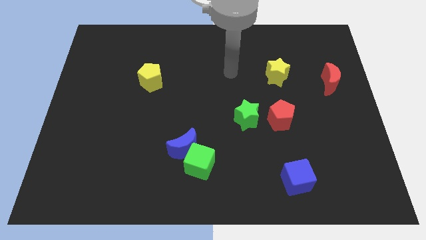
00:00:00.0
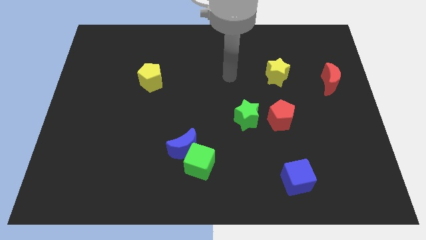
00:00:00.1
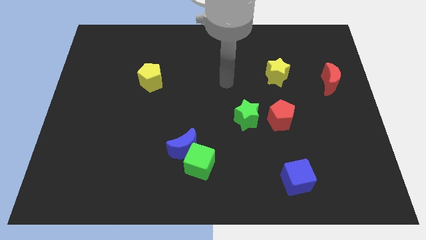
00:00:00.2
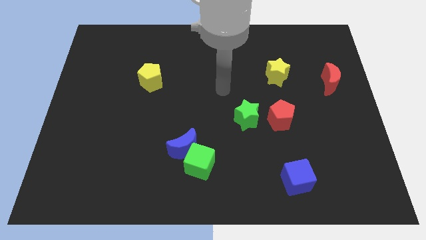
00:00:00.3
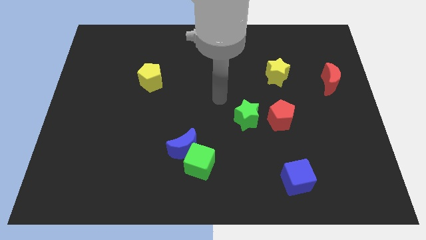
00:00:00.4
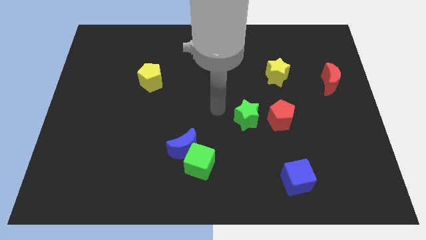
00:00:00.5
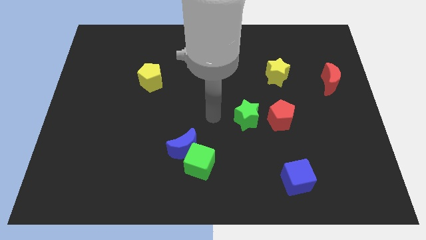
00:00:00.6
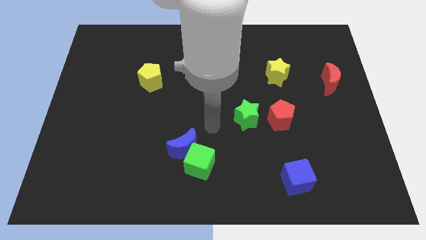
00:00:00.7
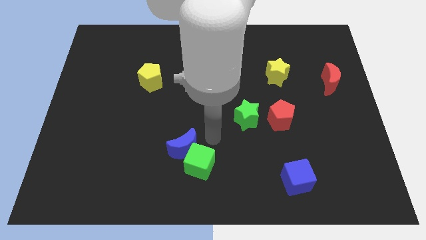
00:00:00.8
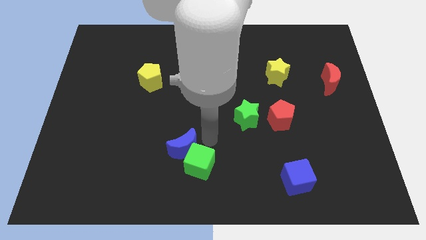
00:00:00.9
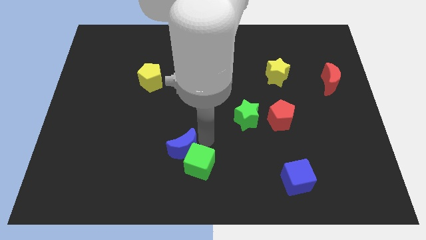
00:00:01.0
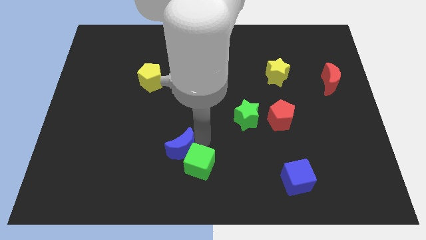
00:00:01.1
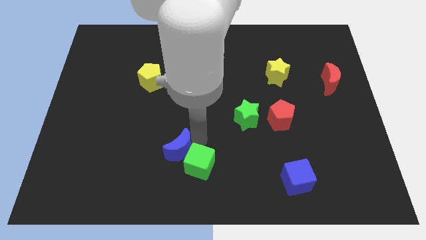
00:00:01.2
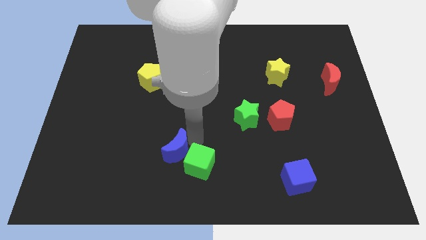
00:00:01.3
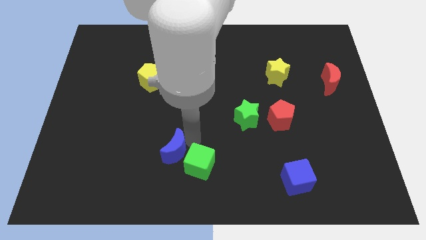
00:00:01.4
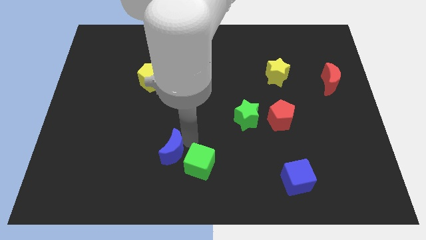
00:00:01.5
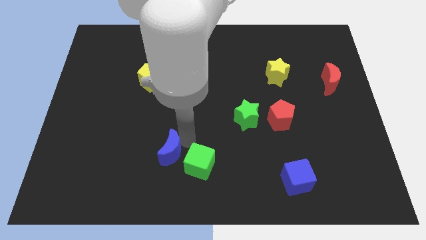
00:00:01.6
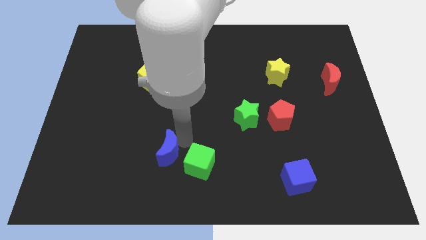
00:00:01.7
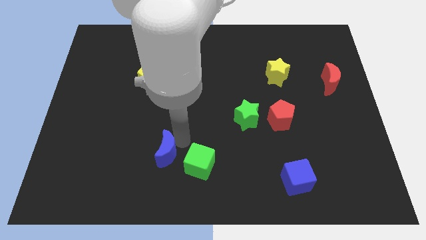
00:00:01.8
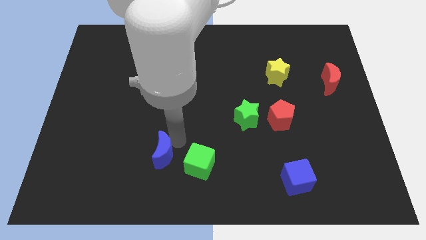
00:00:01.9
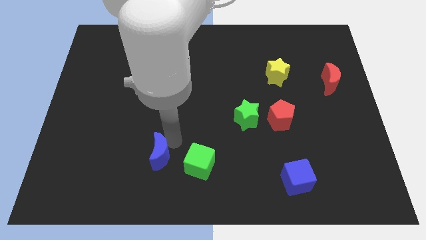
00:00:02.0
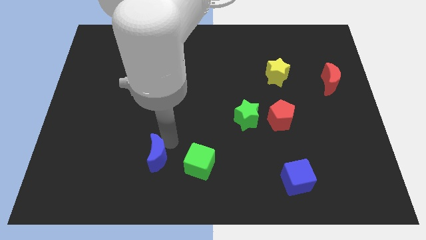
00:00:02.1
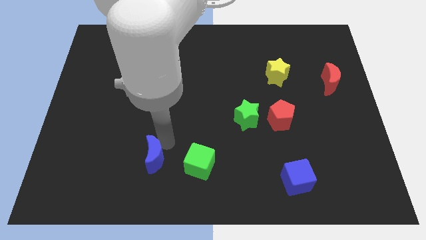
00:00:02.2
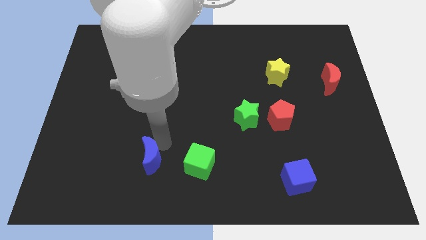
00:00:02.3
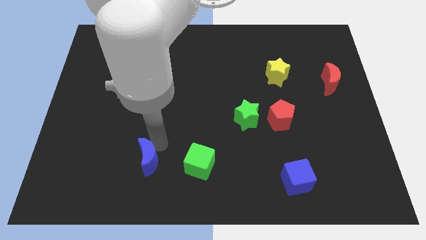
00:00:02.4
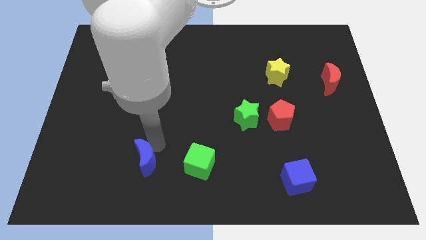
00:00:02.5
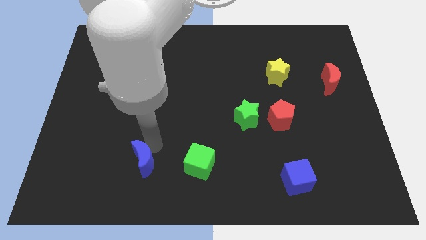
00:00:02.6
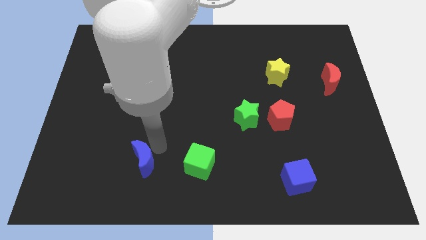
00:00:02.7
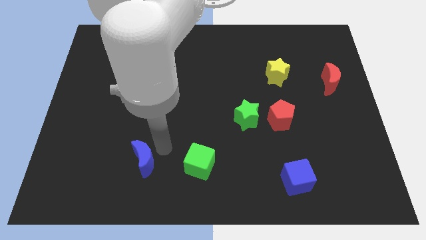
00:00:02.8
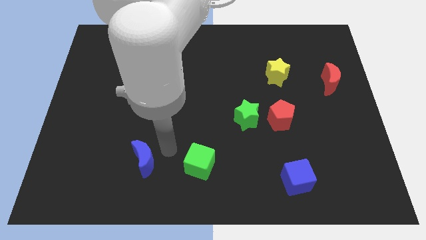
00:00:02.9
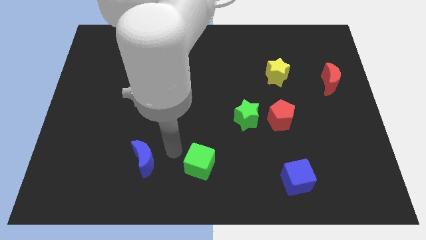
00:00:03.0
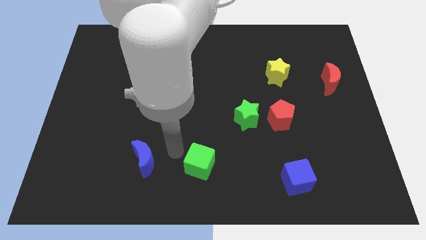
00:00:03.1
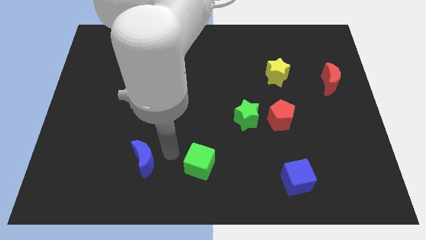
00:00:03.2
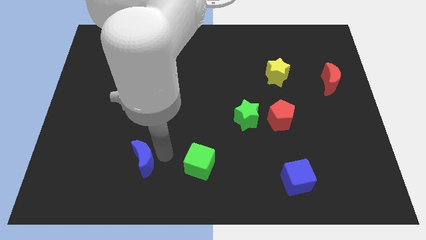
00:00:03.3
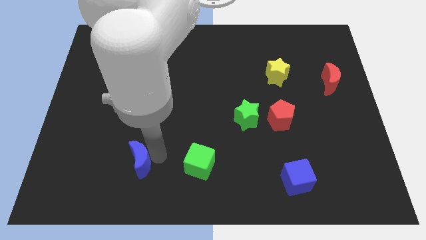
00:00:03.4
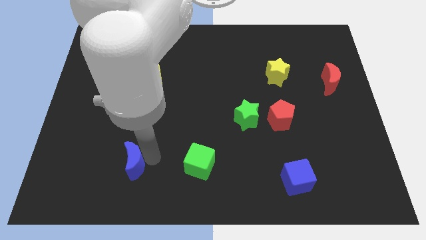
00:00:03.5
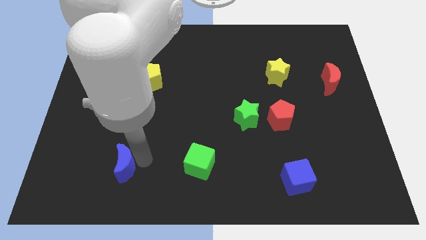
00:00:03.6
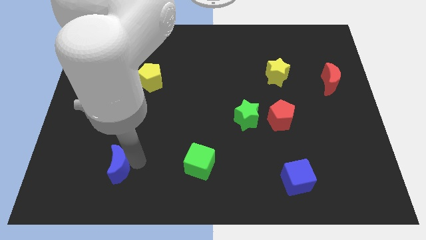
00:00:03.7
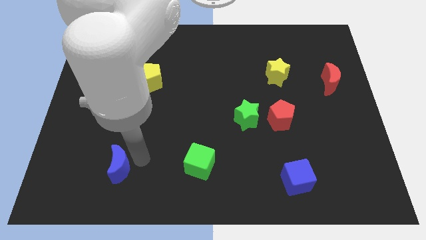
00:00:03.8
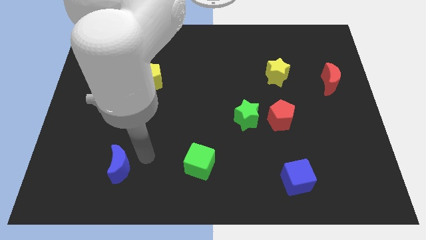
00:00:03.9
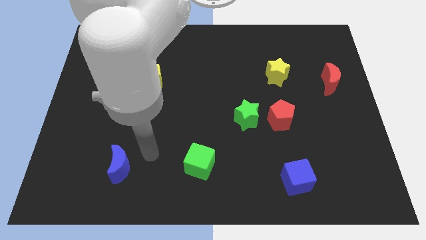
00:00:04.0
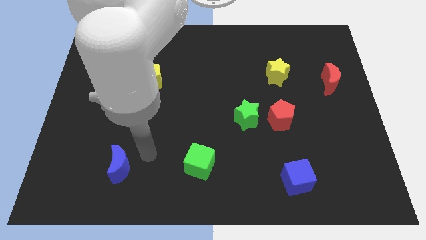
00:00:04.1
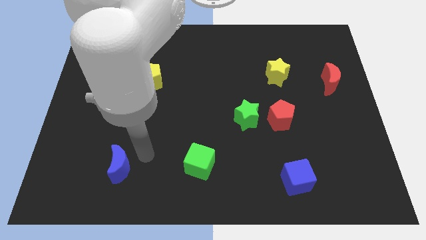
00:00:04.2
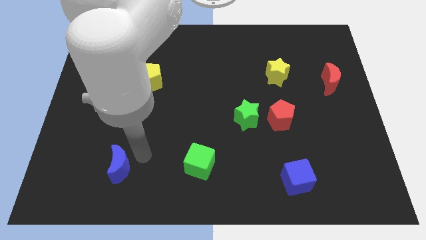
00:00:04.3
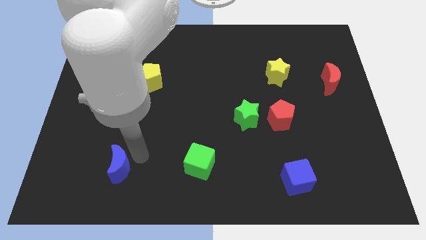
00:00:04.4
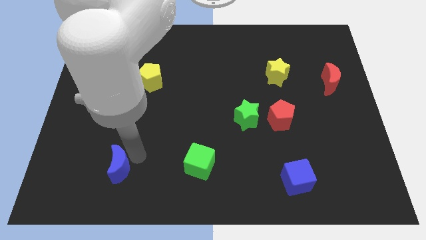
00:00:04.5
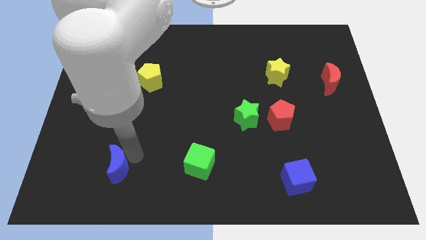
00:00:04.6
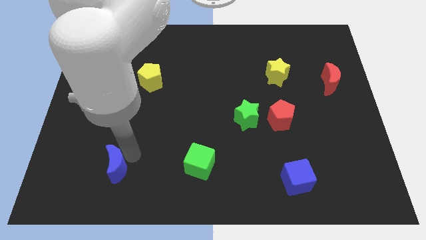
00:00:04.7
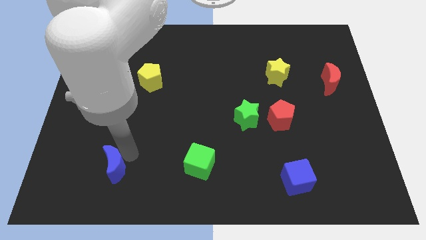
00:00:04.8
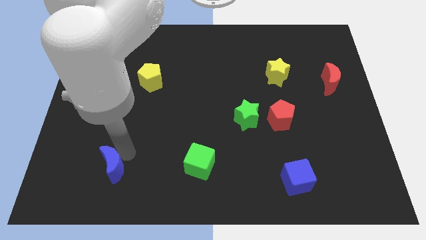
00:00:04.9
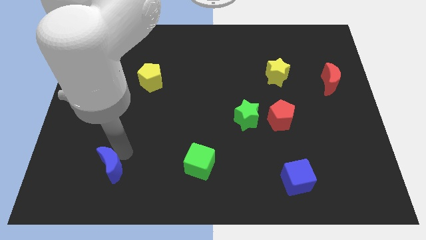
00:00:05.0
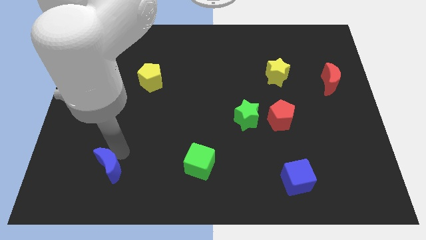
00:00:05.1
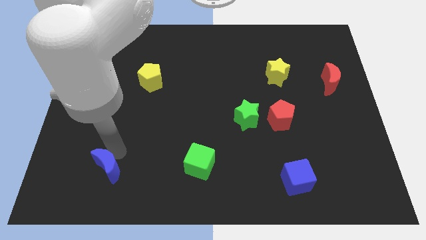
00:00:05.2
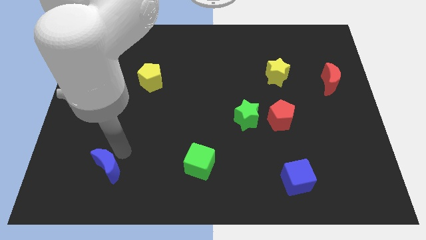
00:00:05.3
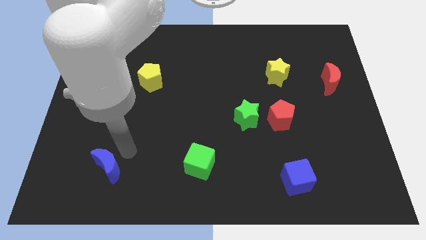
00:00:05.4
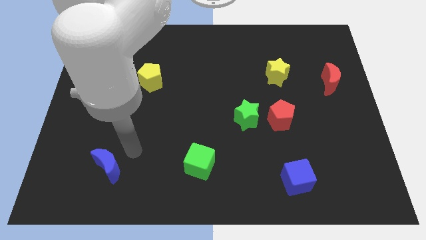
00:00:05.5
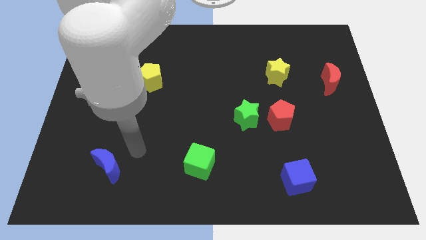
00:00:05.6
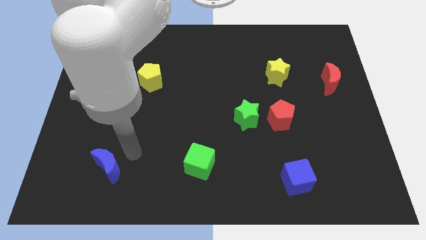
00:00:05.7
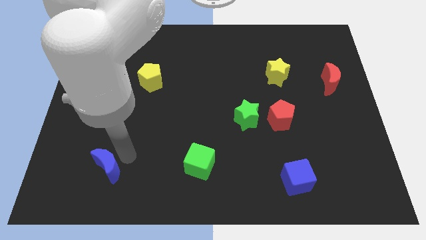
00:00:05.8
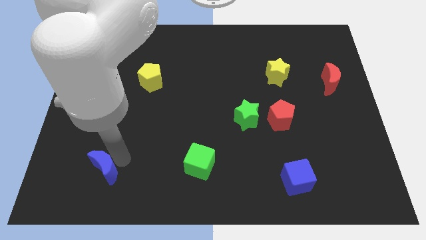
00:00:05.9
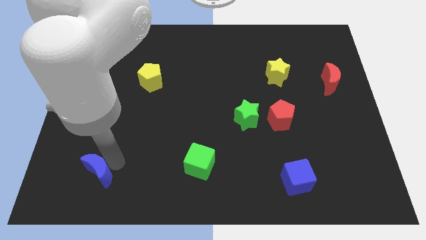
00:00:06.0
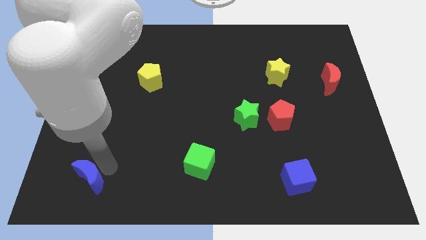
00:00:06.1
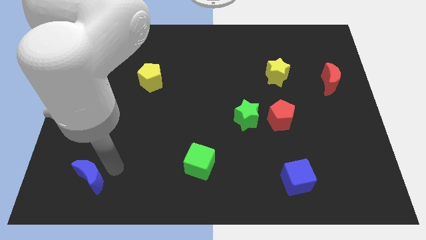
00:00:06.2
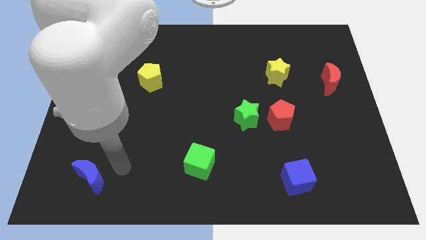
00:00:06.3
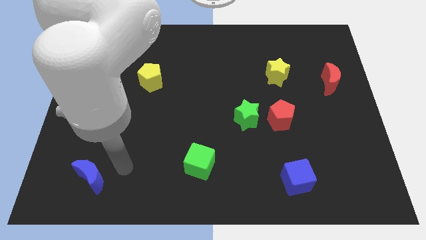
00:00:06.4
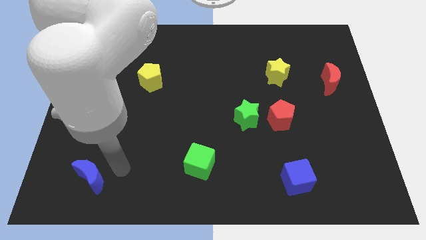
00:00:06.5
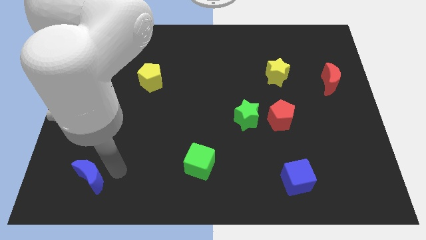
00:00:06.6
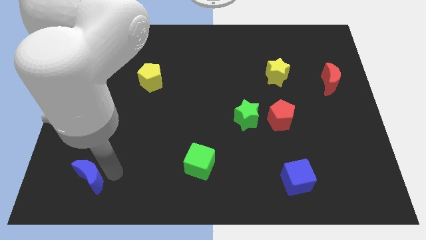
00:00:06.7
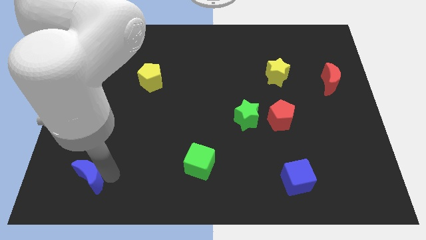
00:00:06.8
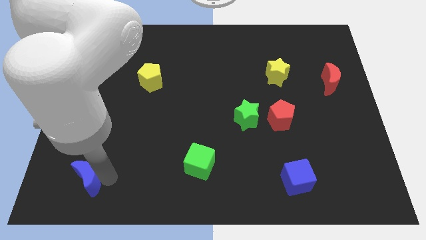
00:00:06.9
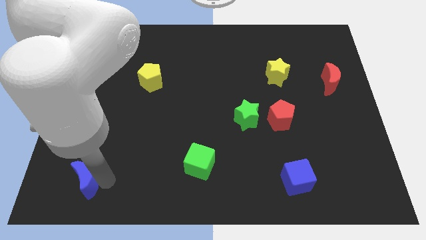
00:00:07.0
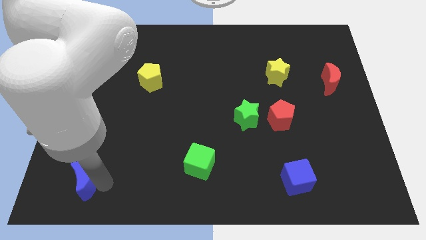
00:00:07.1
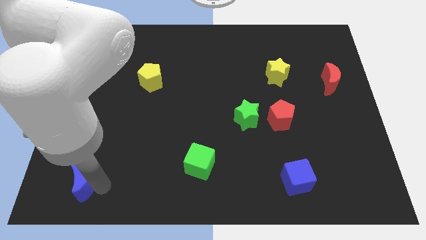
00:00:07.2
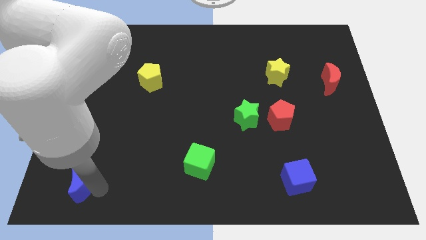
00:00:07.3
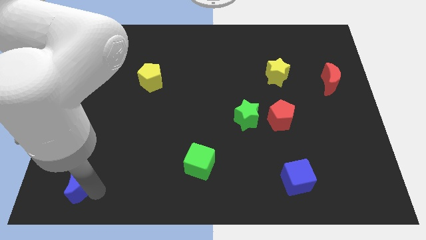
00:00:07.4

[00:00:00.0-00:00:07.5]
push the blue moon to the bottom left corner
